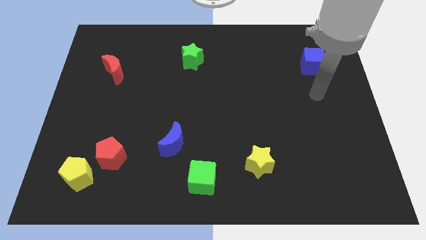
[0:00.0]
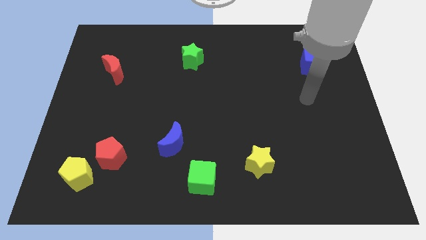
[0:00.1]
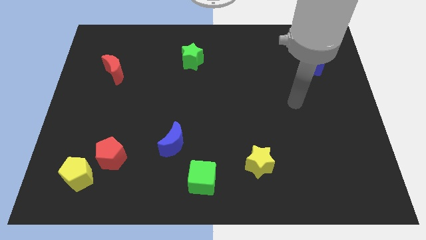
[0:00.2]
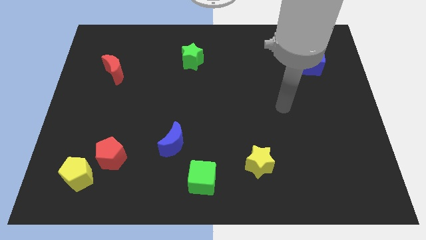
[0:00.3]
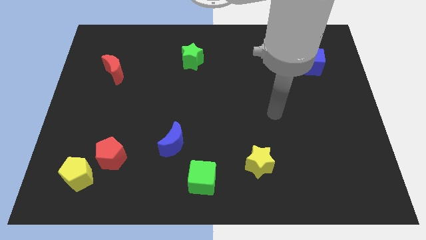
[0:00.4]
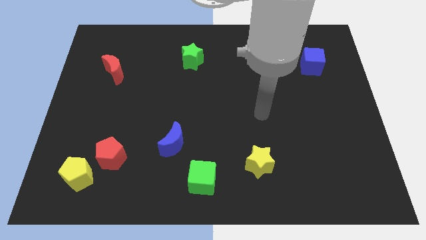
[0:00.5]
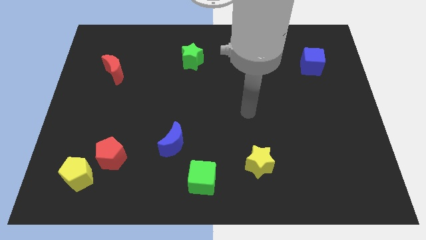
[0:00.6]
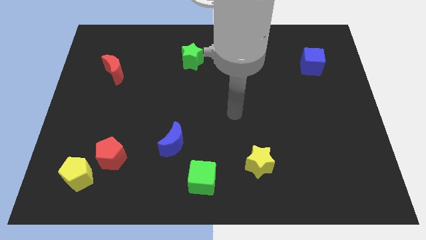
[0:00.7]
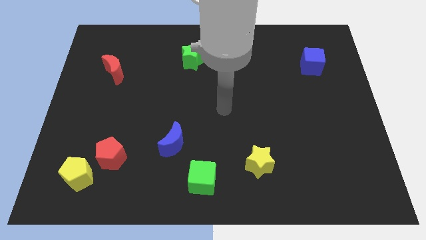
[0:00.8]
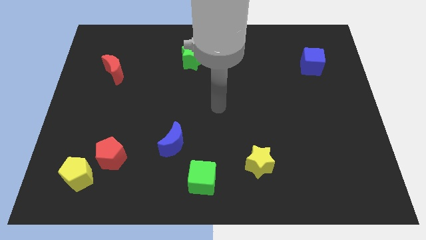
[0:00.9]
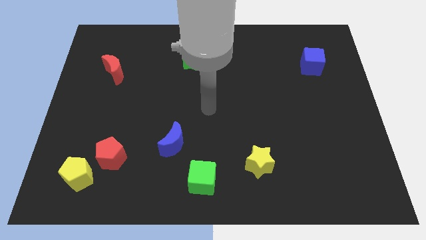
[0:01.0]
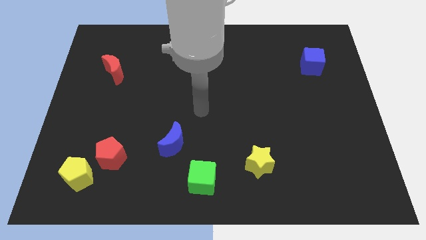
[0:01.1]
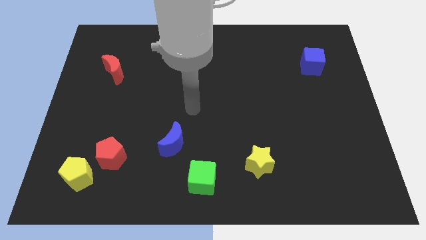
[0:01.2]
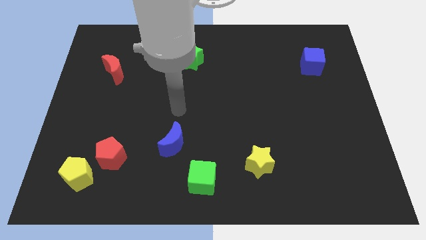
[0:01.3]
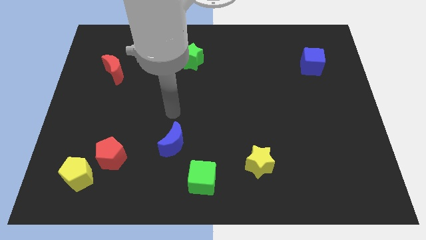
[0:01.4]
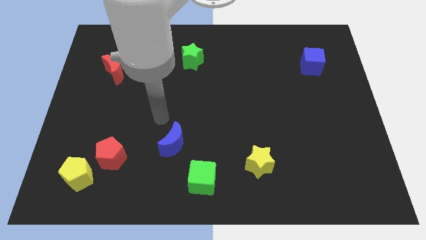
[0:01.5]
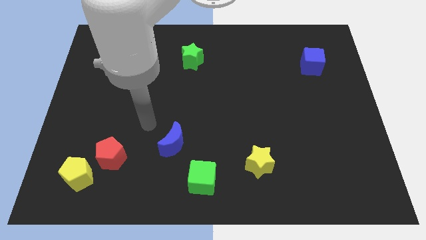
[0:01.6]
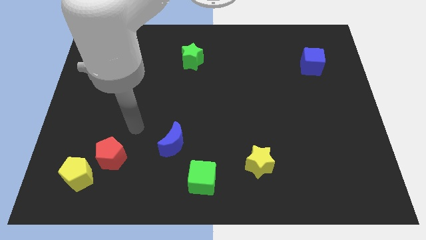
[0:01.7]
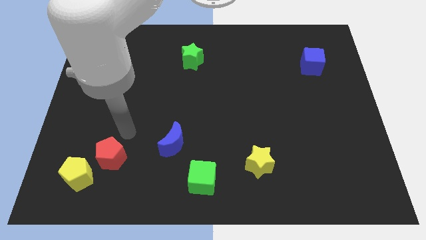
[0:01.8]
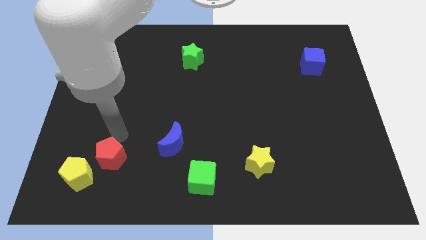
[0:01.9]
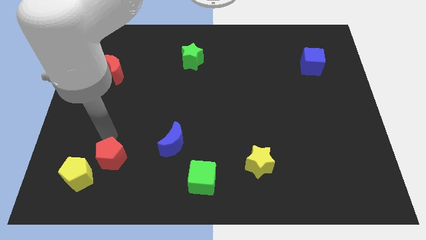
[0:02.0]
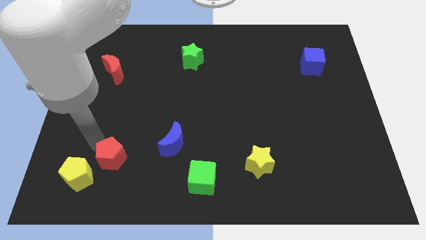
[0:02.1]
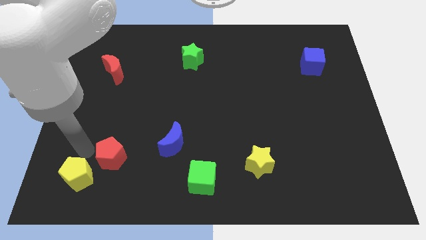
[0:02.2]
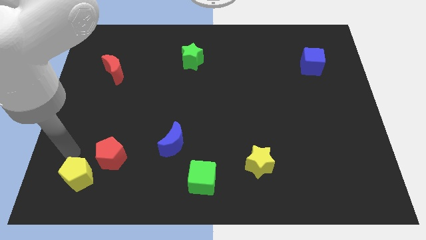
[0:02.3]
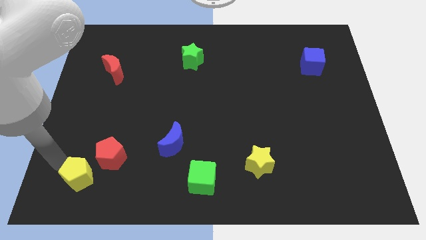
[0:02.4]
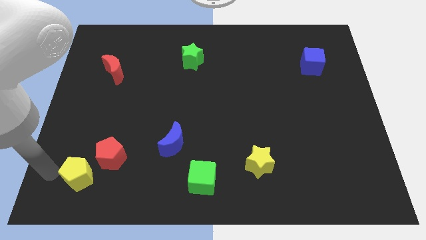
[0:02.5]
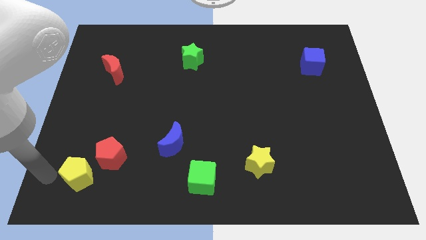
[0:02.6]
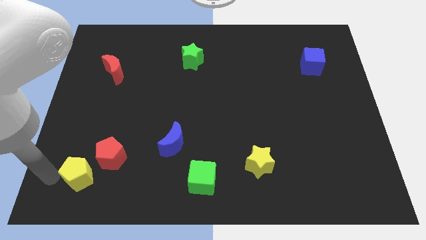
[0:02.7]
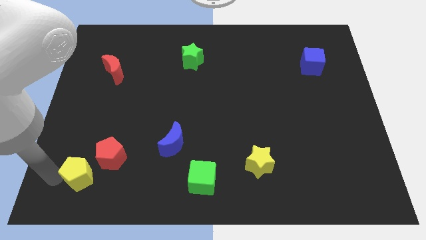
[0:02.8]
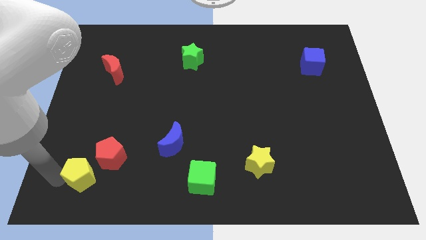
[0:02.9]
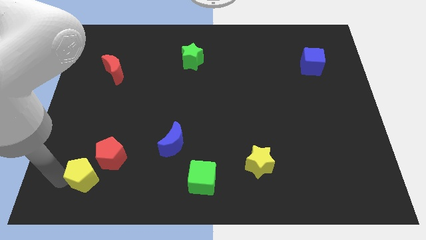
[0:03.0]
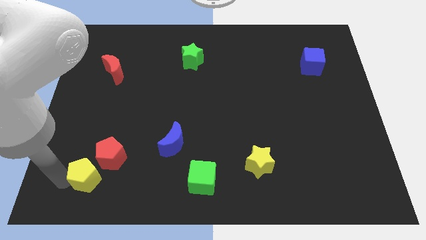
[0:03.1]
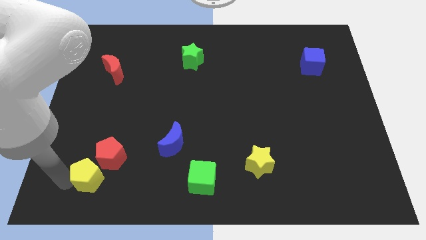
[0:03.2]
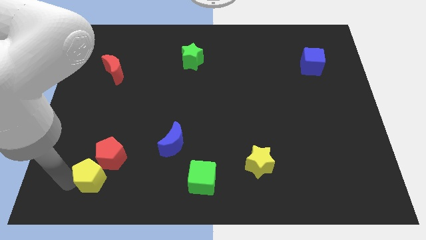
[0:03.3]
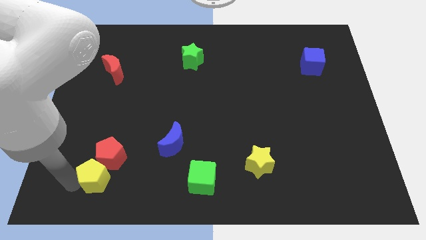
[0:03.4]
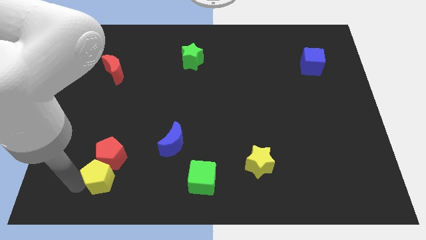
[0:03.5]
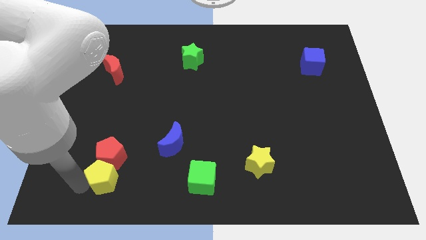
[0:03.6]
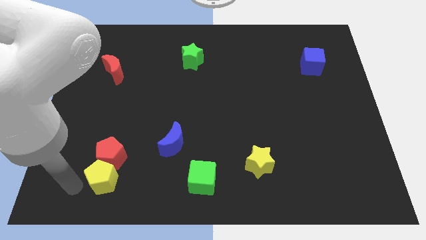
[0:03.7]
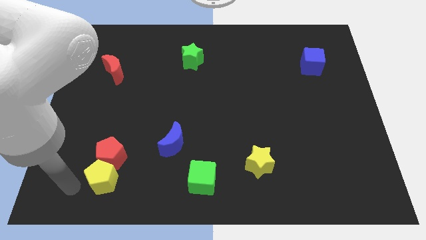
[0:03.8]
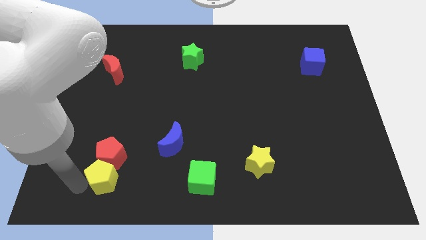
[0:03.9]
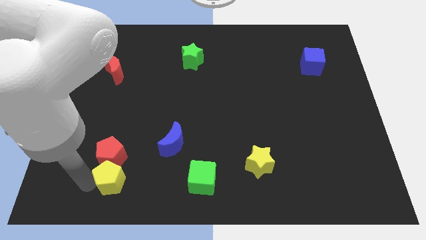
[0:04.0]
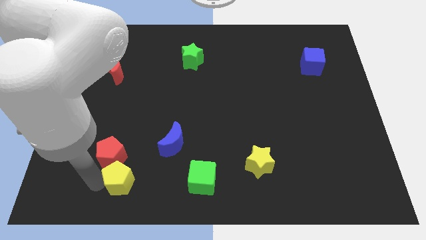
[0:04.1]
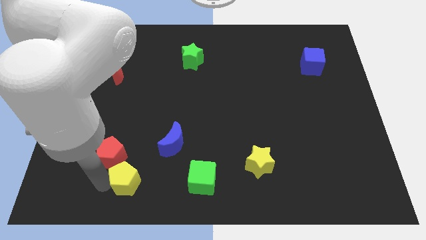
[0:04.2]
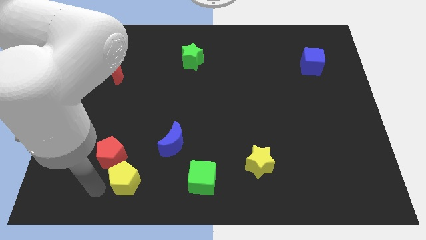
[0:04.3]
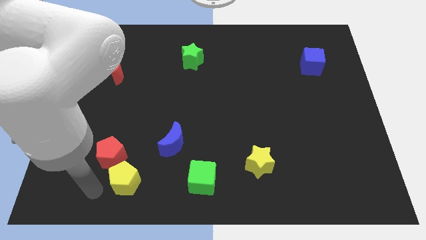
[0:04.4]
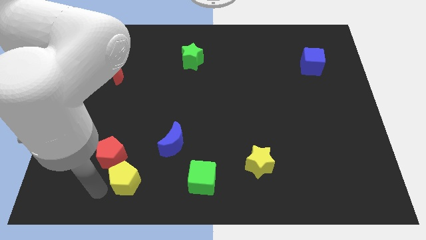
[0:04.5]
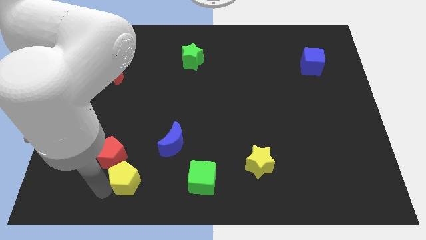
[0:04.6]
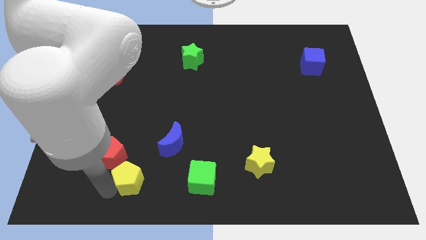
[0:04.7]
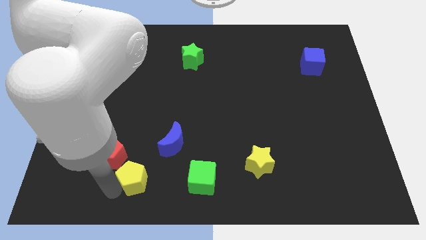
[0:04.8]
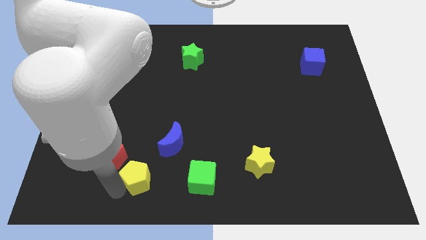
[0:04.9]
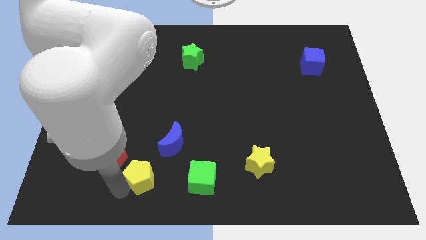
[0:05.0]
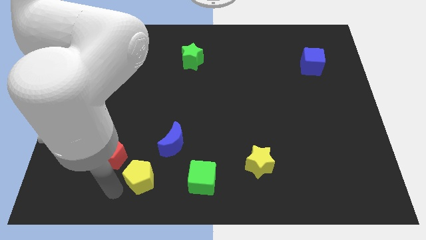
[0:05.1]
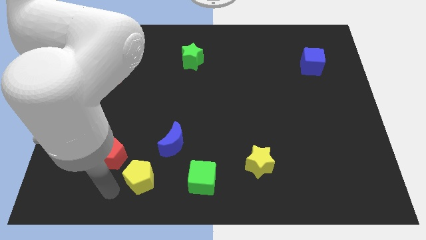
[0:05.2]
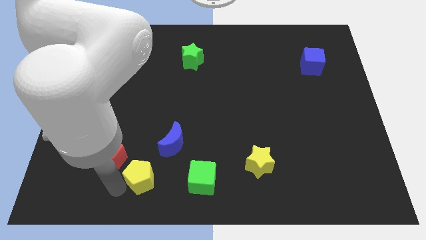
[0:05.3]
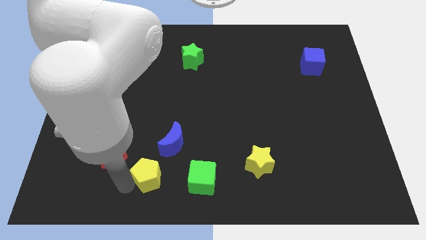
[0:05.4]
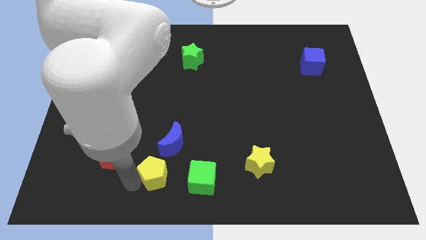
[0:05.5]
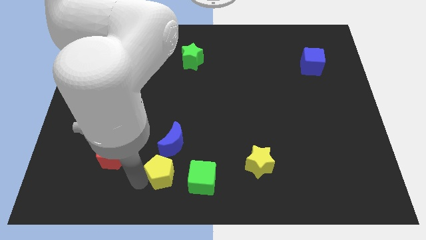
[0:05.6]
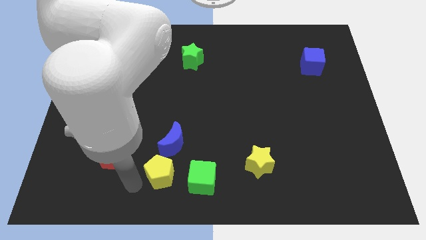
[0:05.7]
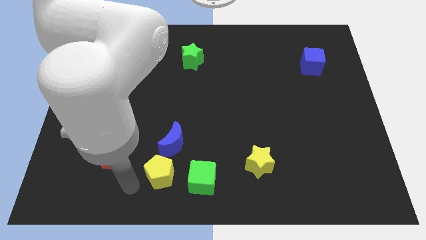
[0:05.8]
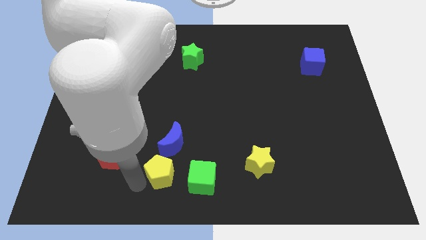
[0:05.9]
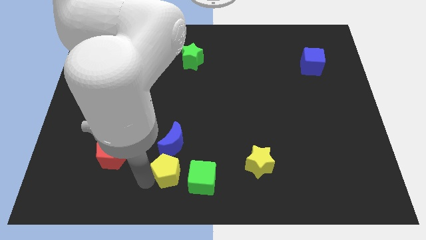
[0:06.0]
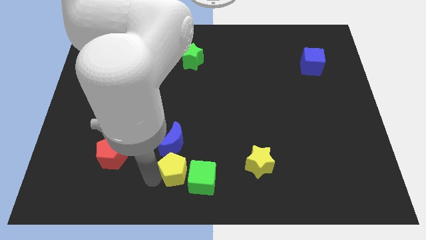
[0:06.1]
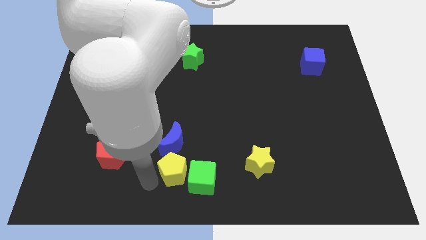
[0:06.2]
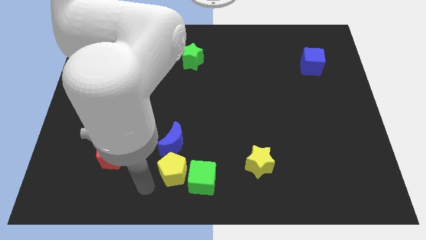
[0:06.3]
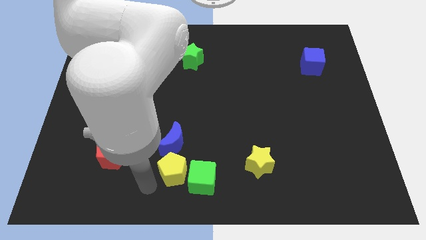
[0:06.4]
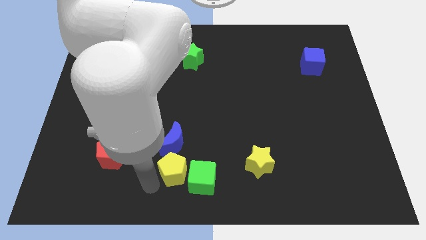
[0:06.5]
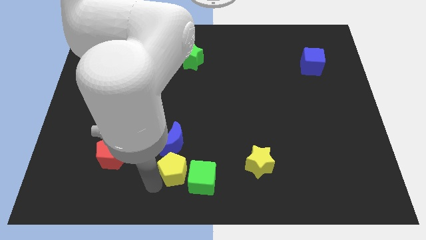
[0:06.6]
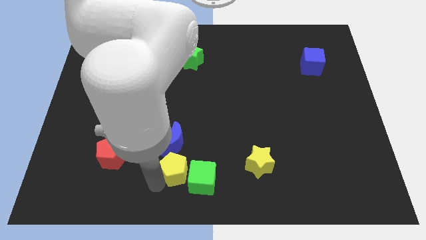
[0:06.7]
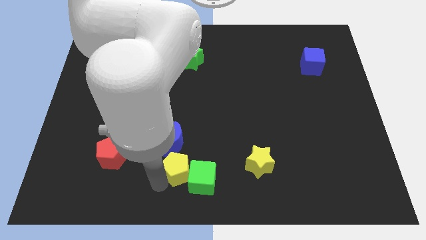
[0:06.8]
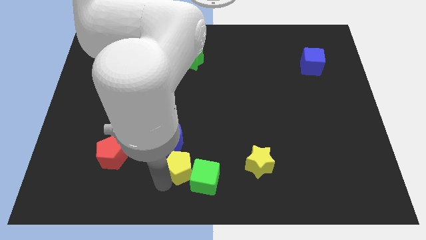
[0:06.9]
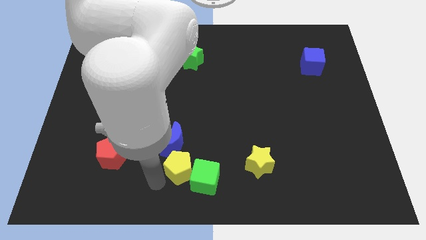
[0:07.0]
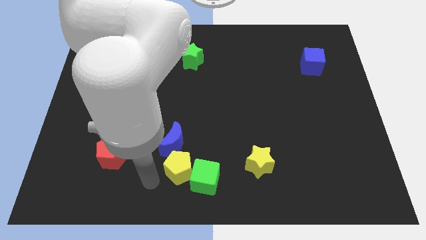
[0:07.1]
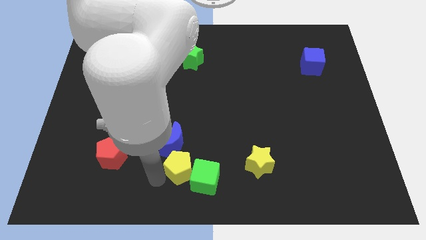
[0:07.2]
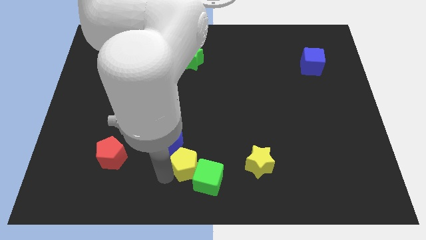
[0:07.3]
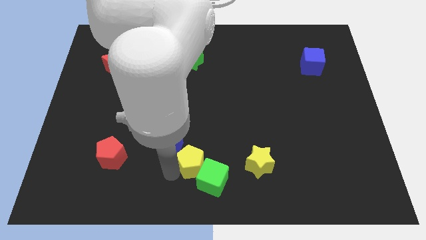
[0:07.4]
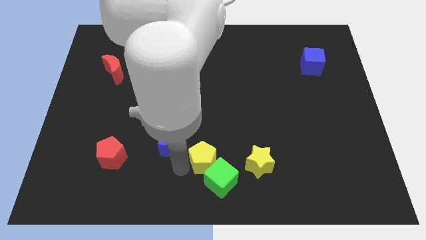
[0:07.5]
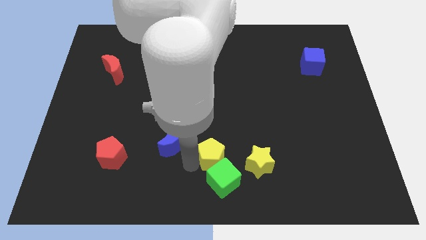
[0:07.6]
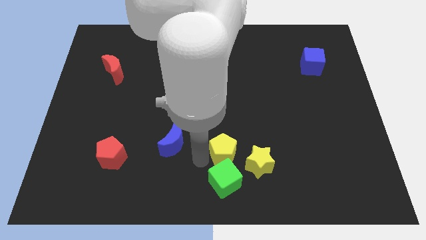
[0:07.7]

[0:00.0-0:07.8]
slide the yellow pentagon to the top right side of the green cube
